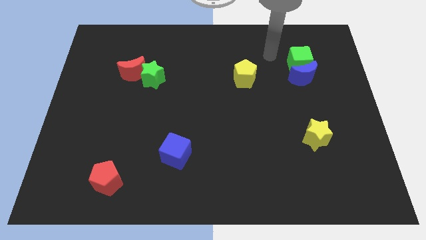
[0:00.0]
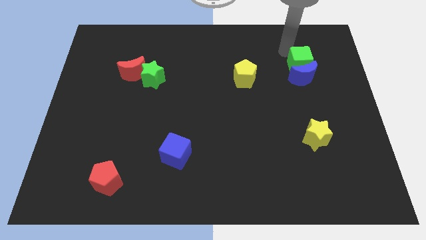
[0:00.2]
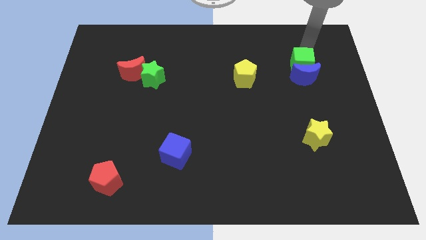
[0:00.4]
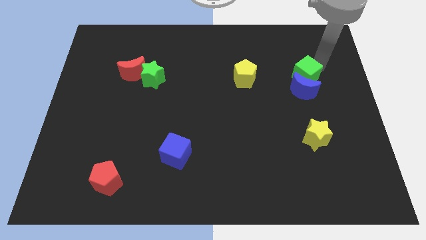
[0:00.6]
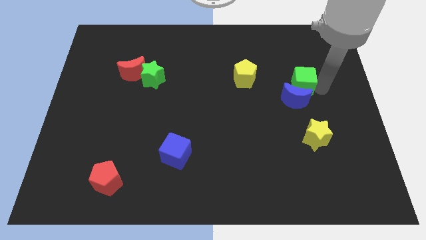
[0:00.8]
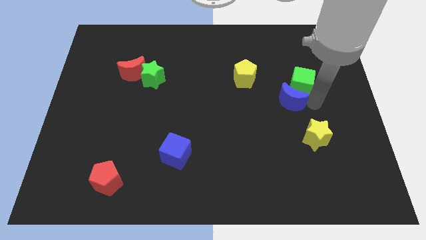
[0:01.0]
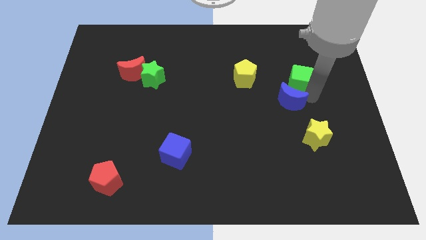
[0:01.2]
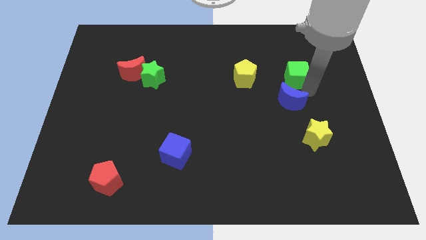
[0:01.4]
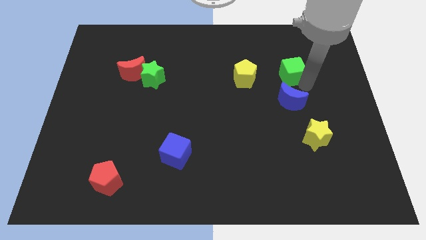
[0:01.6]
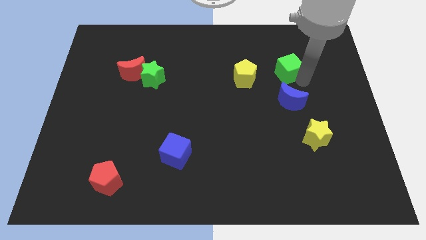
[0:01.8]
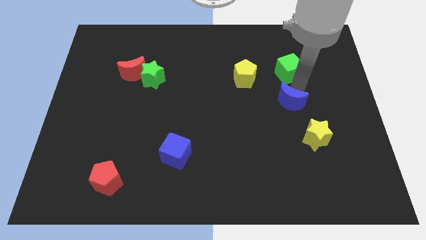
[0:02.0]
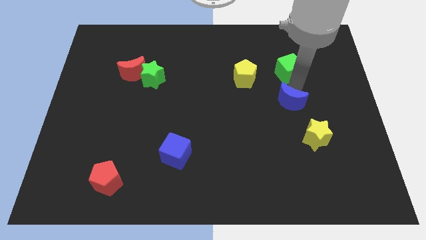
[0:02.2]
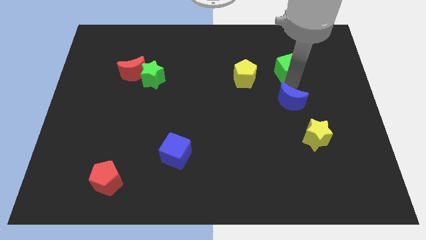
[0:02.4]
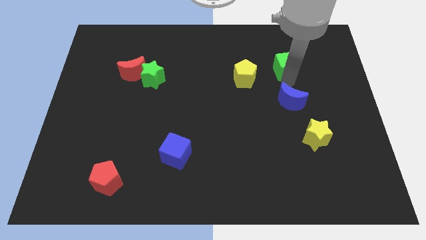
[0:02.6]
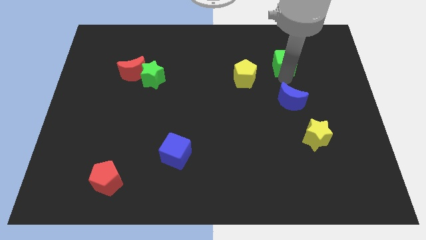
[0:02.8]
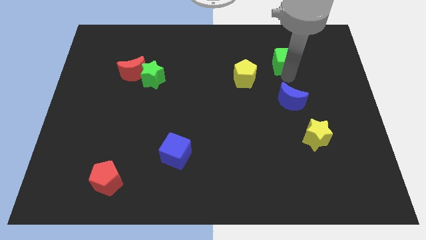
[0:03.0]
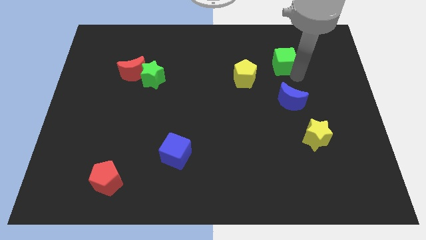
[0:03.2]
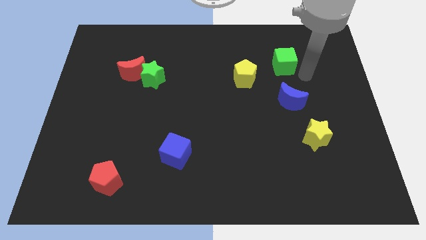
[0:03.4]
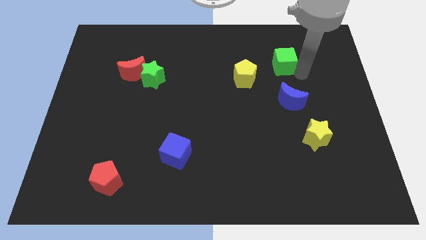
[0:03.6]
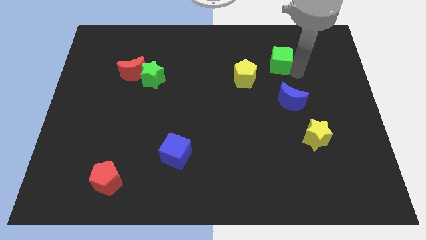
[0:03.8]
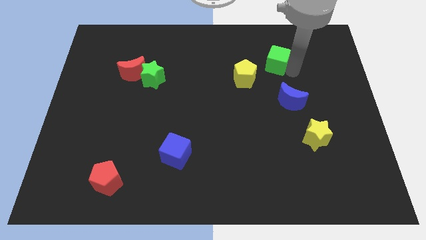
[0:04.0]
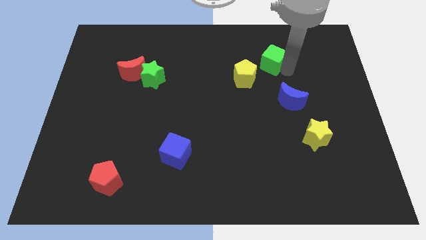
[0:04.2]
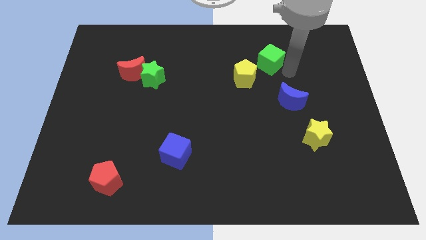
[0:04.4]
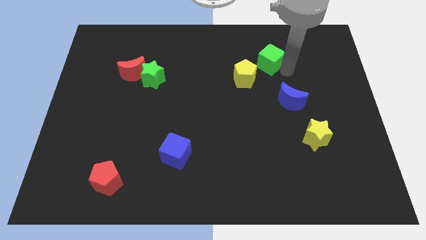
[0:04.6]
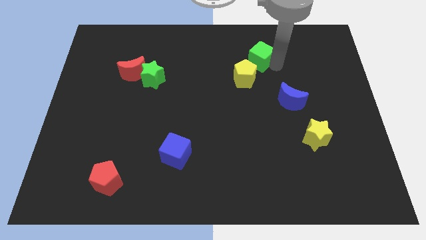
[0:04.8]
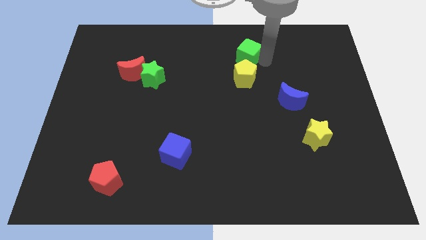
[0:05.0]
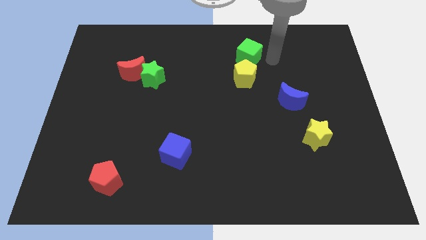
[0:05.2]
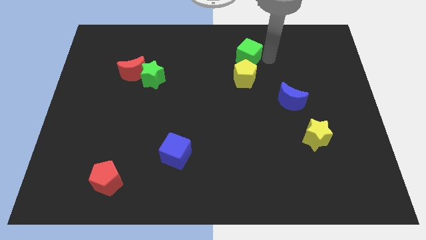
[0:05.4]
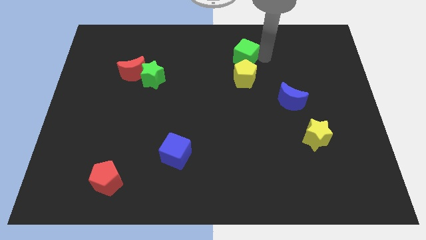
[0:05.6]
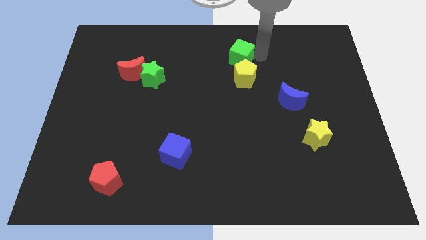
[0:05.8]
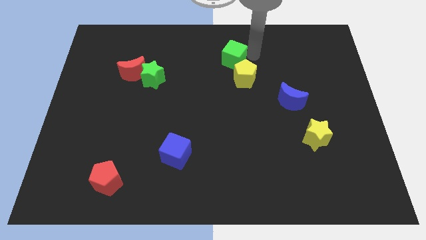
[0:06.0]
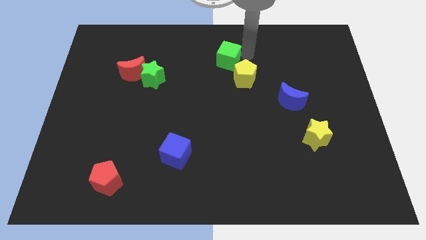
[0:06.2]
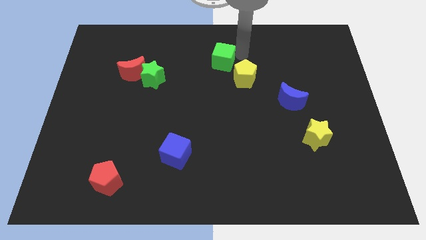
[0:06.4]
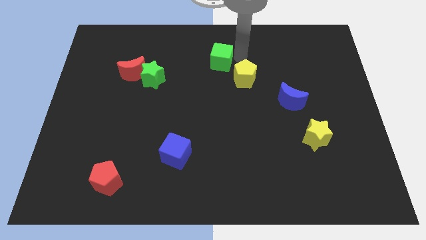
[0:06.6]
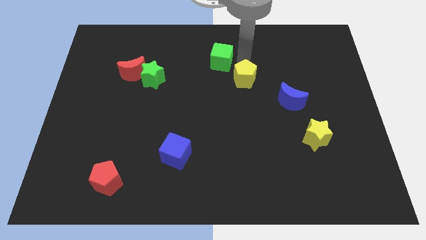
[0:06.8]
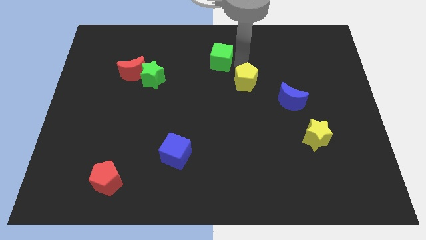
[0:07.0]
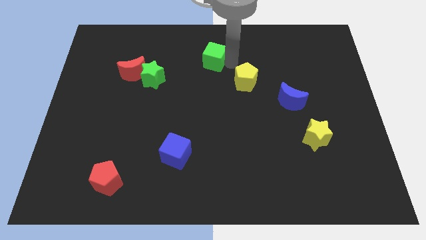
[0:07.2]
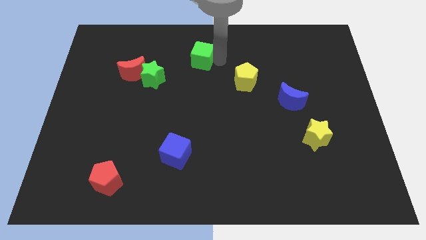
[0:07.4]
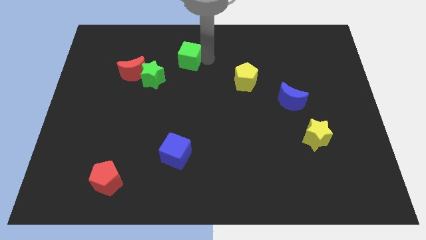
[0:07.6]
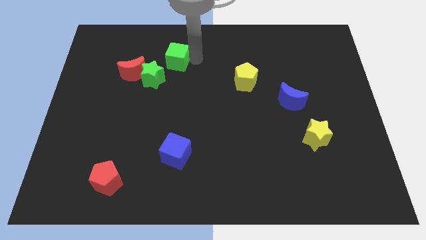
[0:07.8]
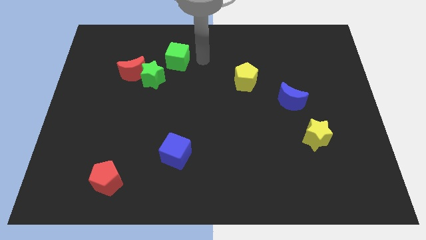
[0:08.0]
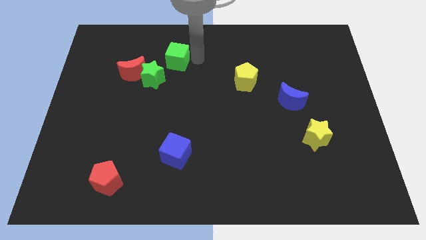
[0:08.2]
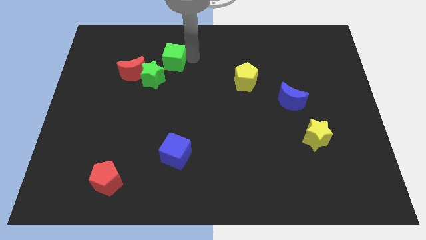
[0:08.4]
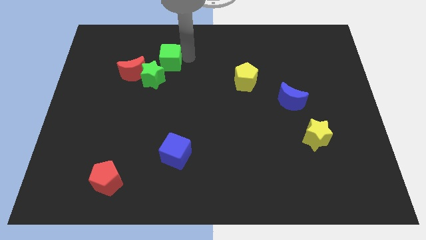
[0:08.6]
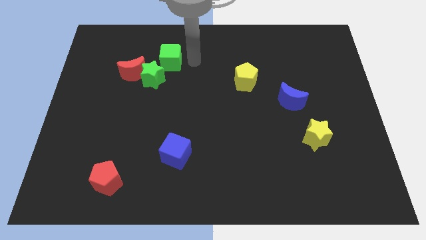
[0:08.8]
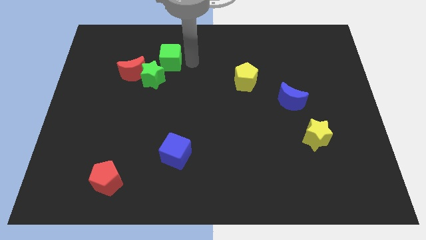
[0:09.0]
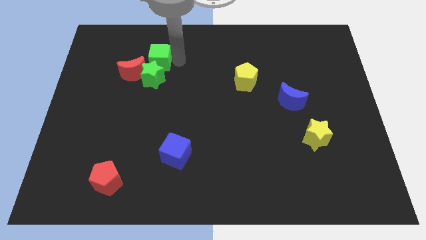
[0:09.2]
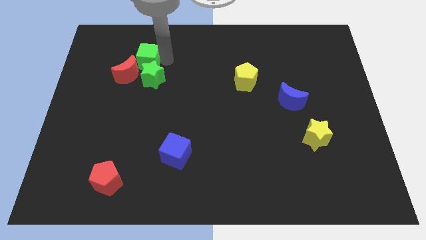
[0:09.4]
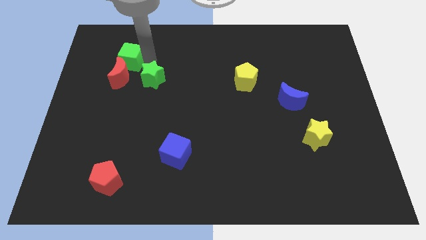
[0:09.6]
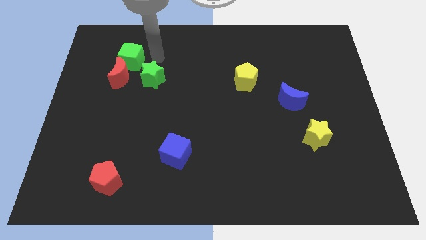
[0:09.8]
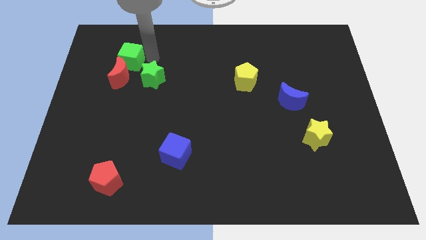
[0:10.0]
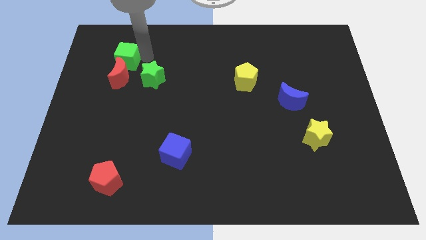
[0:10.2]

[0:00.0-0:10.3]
slide the green cube to the top left side of the red moon

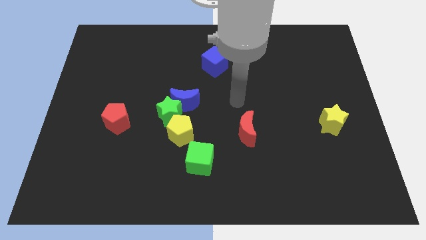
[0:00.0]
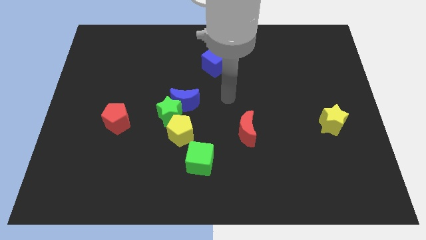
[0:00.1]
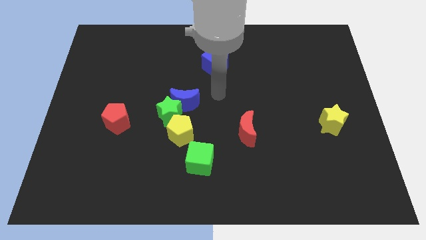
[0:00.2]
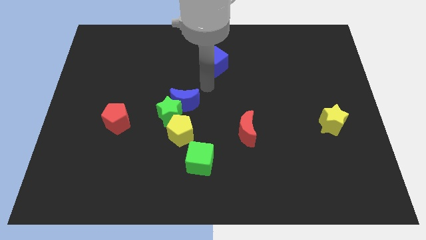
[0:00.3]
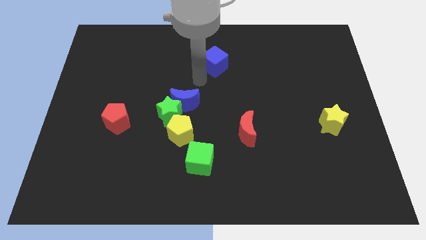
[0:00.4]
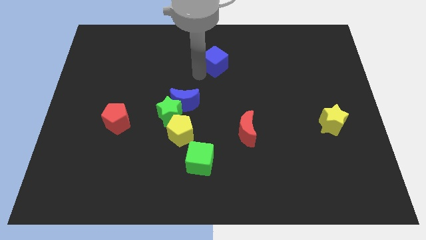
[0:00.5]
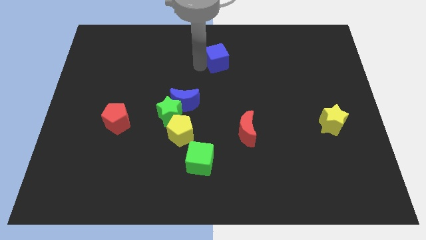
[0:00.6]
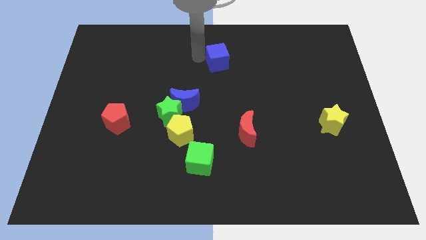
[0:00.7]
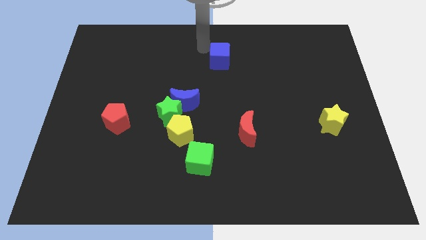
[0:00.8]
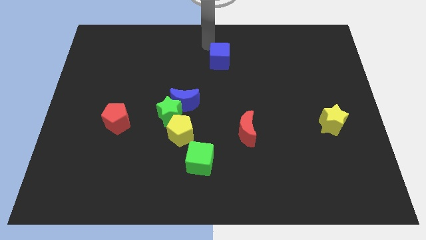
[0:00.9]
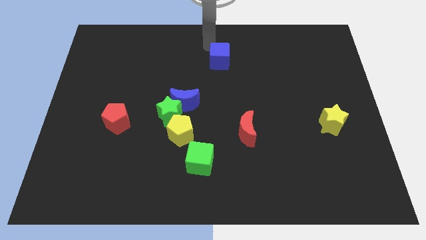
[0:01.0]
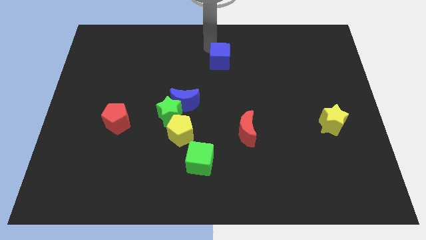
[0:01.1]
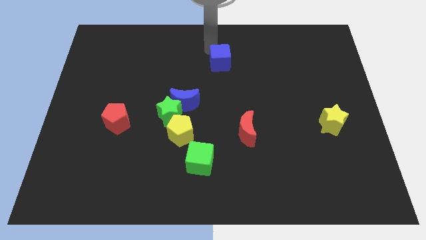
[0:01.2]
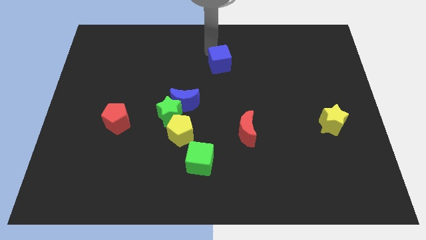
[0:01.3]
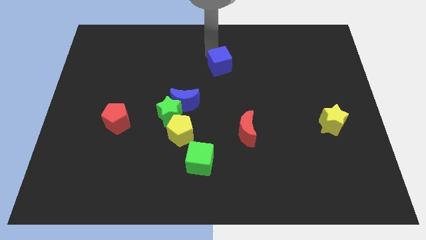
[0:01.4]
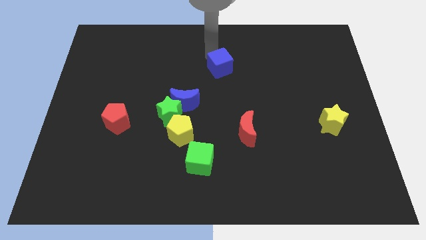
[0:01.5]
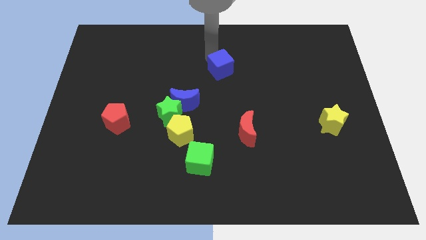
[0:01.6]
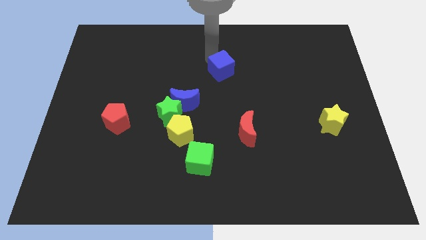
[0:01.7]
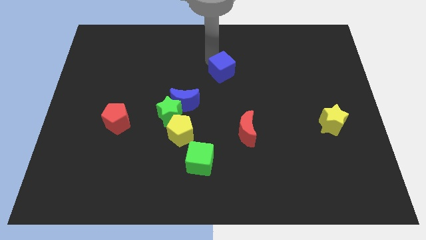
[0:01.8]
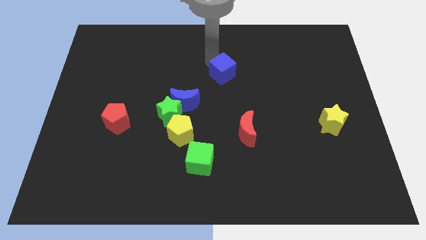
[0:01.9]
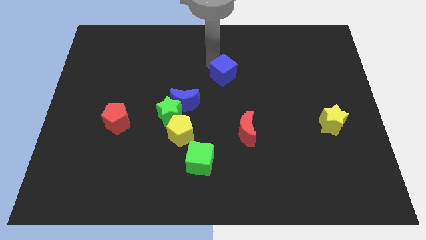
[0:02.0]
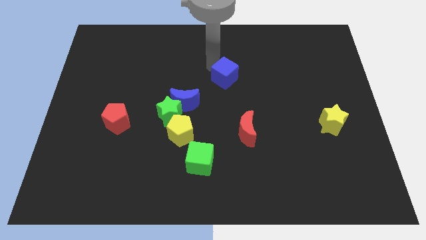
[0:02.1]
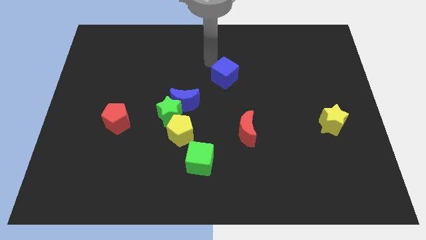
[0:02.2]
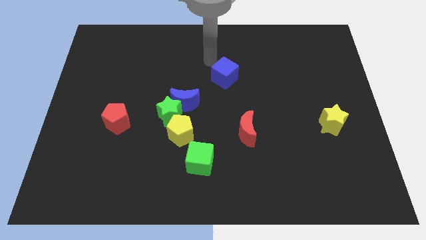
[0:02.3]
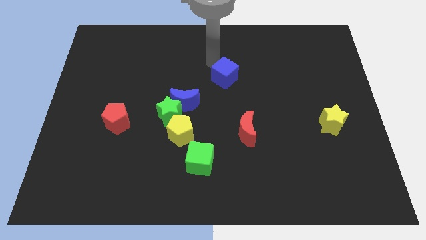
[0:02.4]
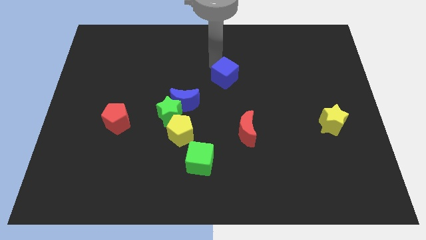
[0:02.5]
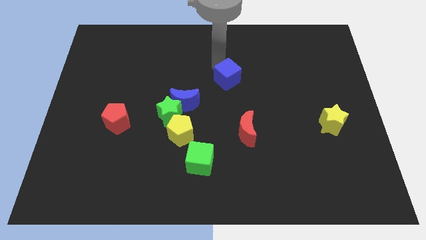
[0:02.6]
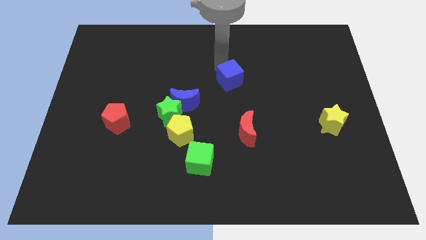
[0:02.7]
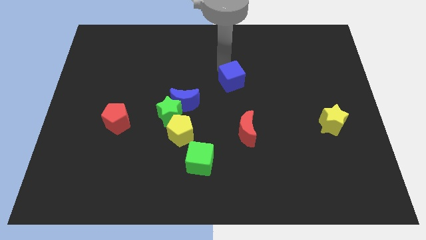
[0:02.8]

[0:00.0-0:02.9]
slide the blue cube above the red moon
